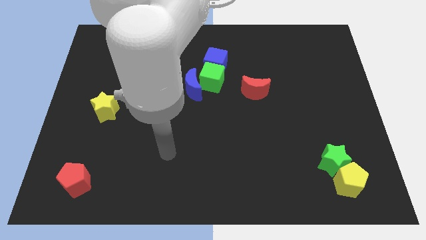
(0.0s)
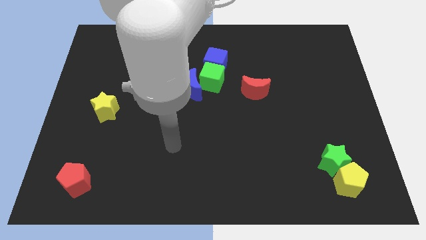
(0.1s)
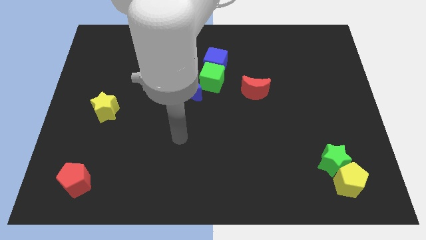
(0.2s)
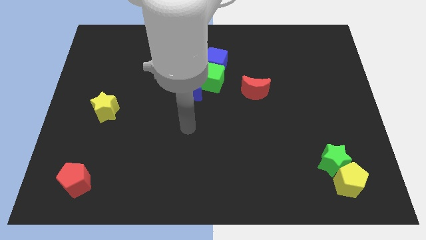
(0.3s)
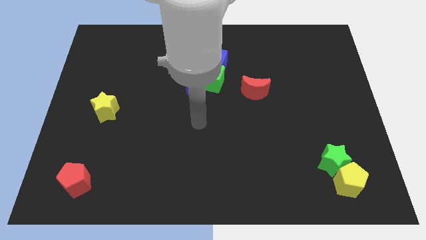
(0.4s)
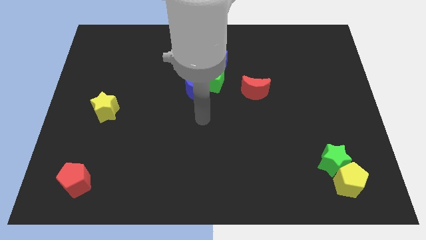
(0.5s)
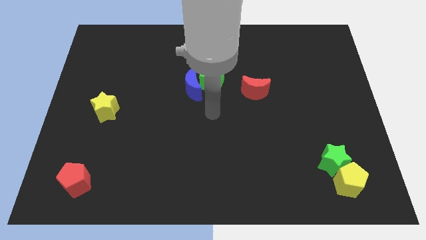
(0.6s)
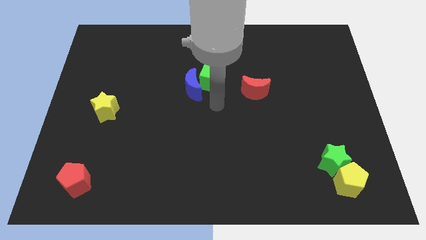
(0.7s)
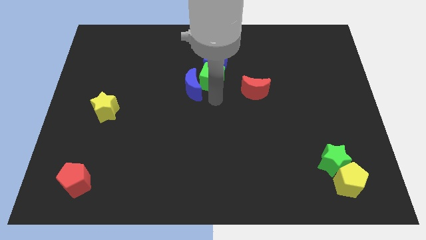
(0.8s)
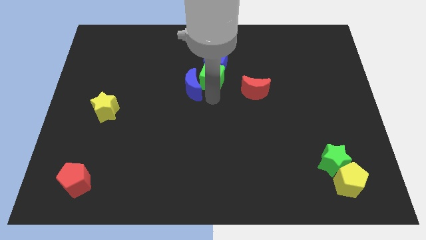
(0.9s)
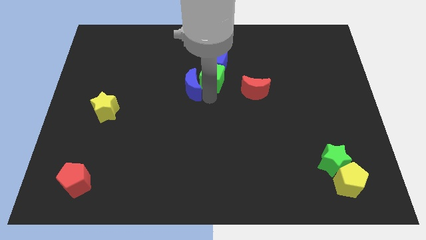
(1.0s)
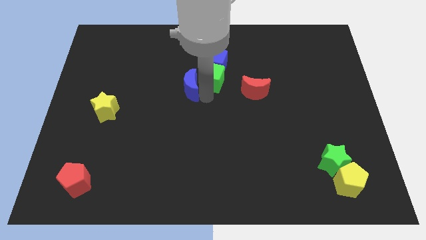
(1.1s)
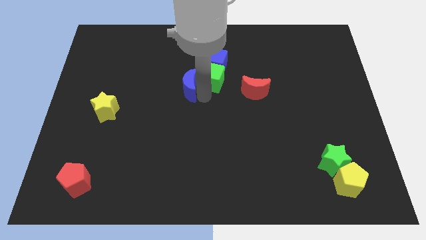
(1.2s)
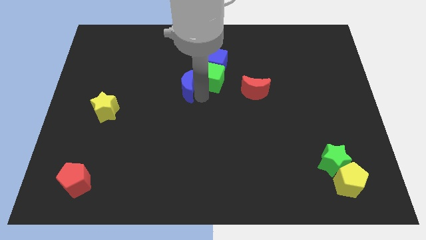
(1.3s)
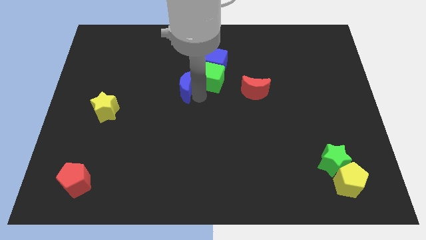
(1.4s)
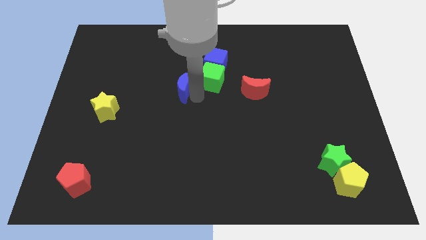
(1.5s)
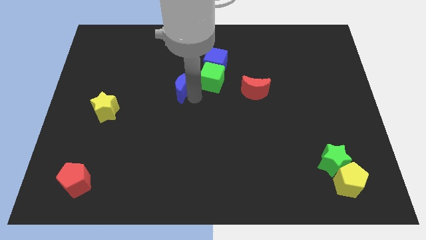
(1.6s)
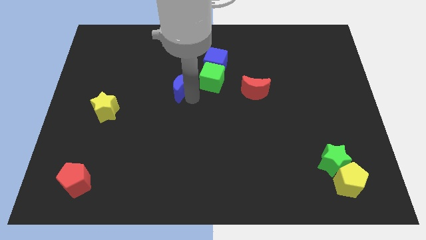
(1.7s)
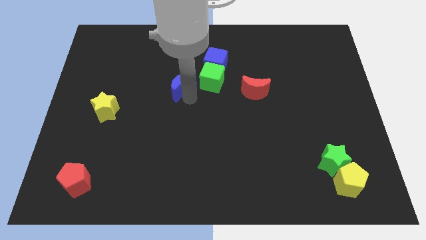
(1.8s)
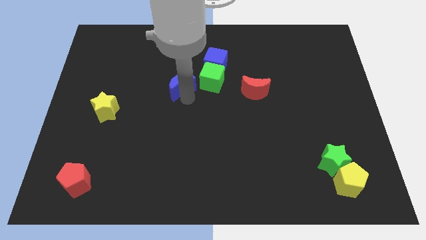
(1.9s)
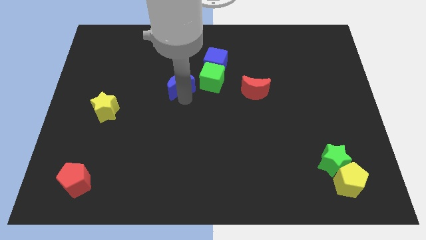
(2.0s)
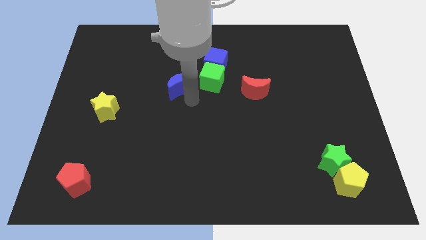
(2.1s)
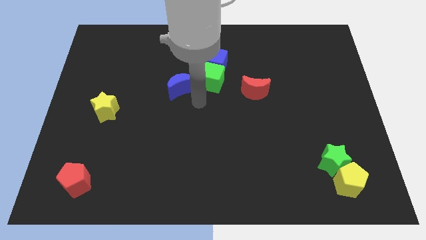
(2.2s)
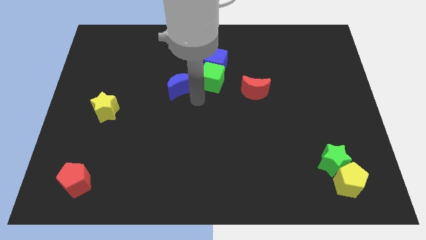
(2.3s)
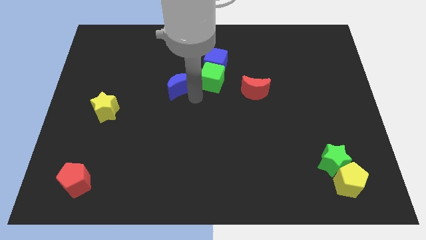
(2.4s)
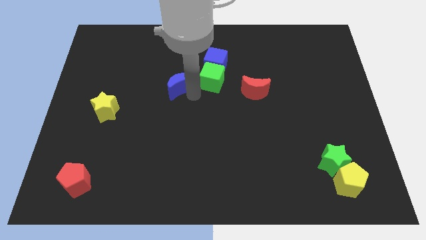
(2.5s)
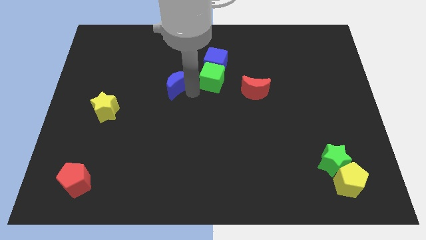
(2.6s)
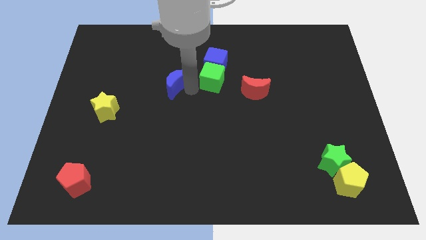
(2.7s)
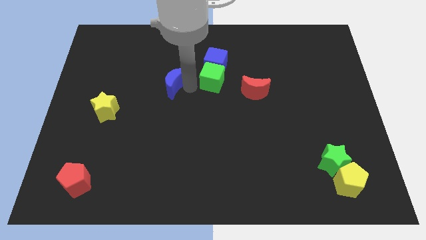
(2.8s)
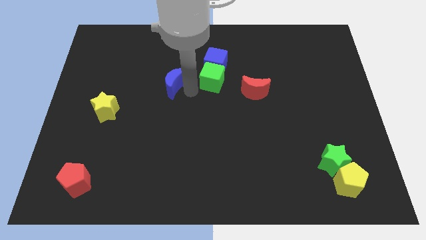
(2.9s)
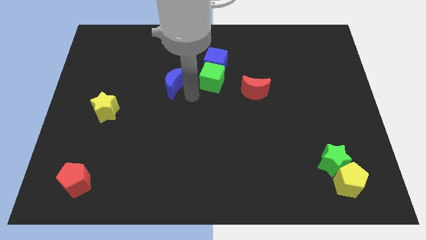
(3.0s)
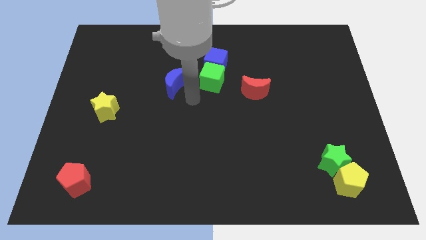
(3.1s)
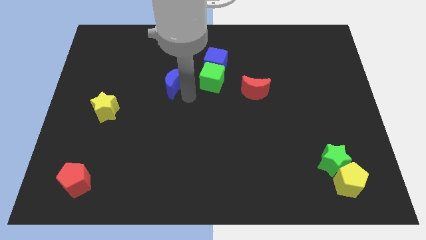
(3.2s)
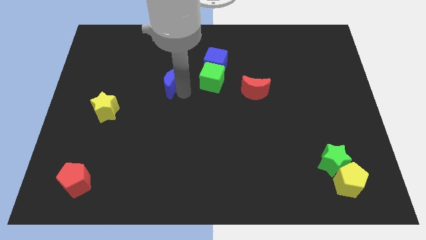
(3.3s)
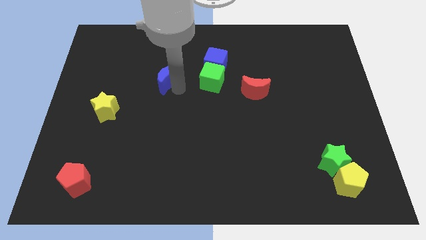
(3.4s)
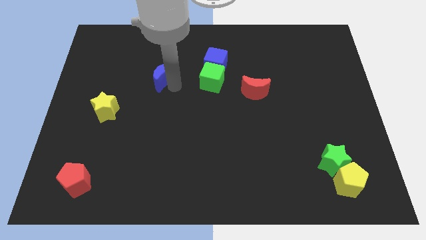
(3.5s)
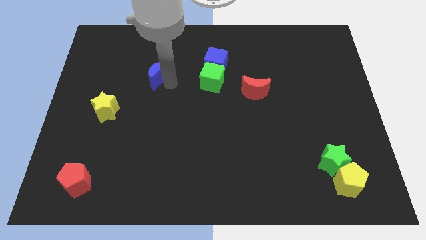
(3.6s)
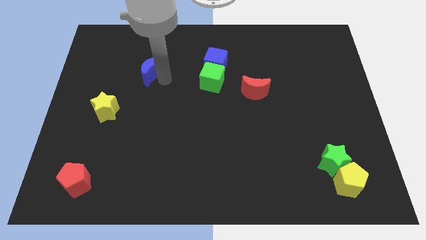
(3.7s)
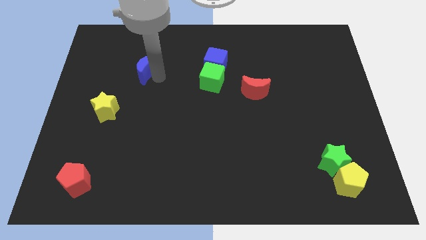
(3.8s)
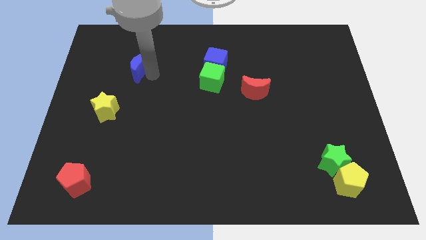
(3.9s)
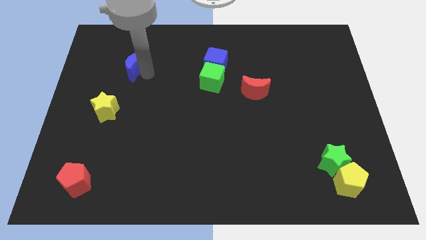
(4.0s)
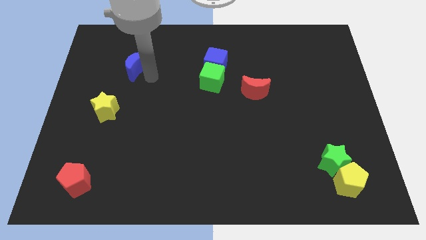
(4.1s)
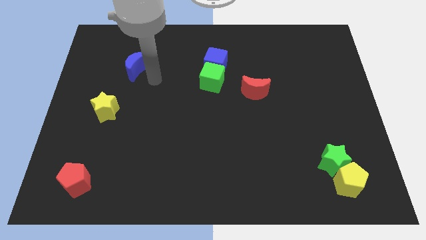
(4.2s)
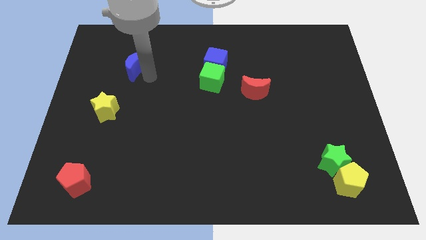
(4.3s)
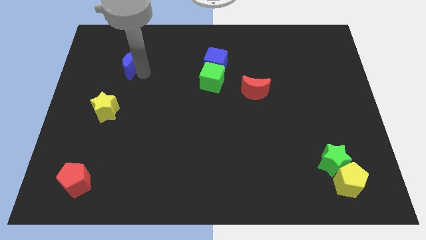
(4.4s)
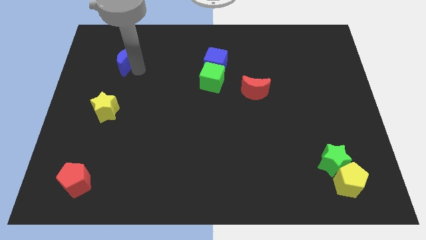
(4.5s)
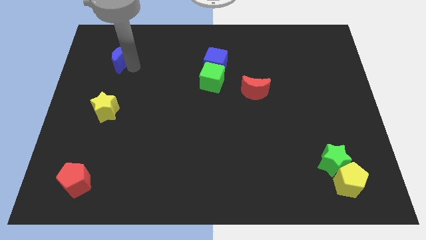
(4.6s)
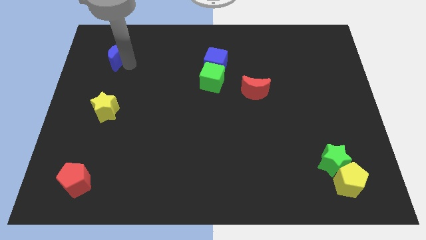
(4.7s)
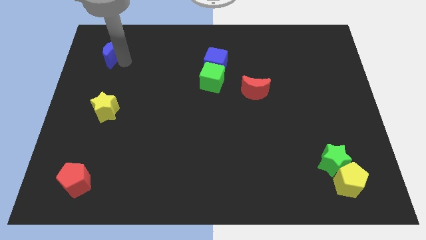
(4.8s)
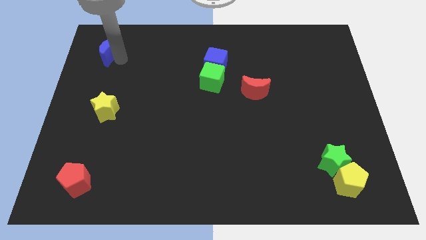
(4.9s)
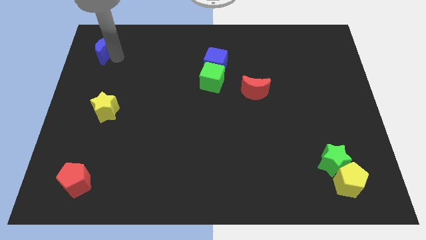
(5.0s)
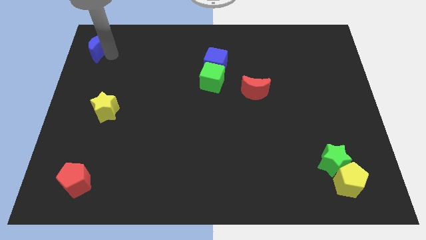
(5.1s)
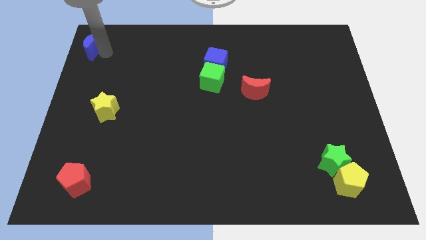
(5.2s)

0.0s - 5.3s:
push the blue moon to the top left corner
